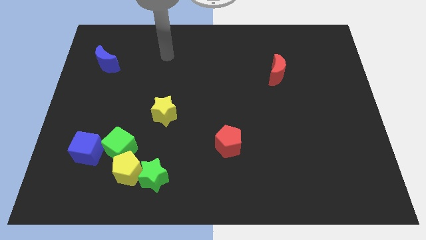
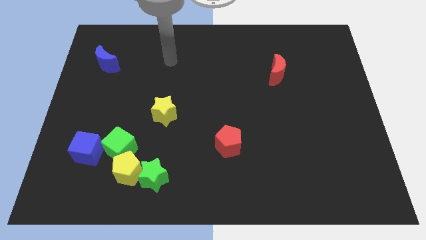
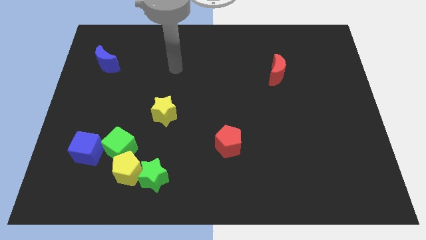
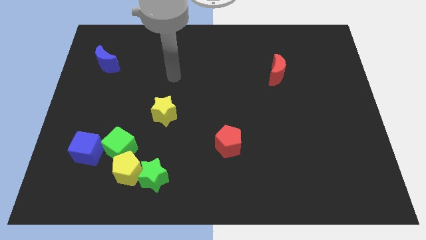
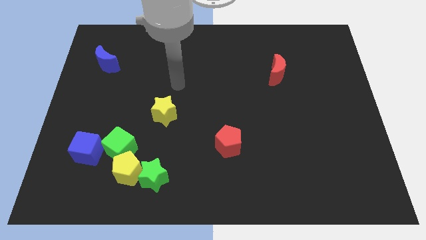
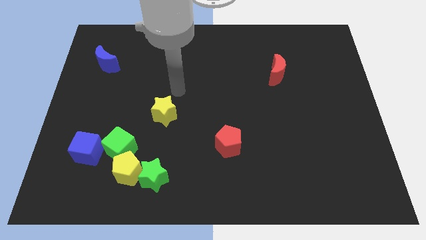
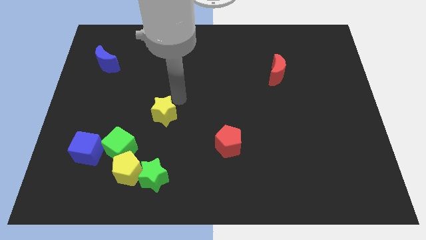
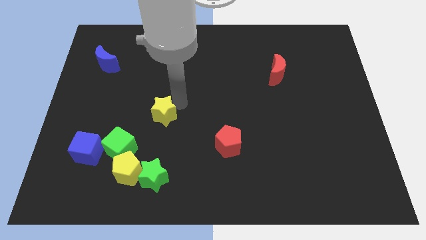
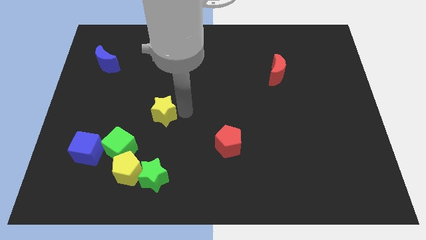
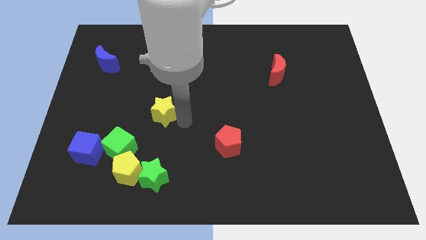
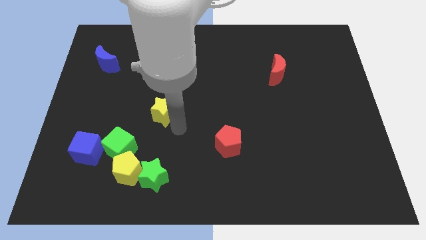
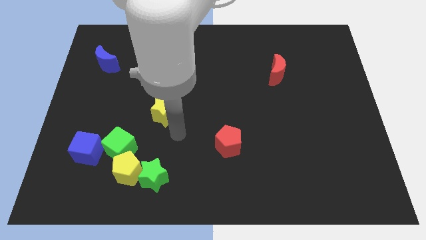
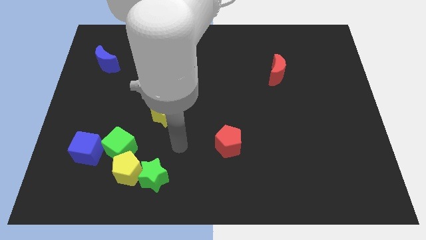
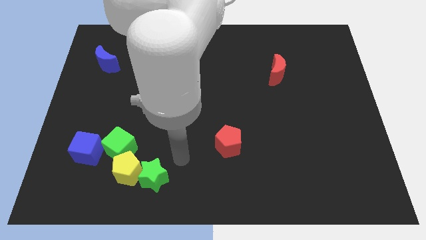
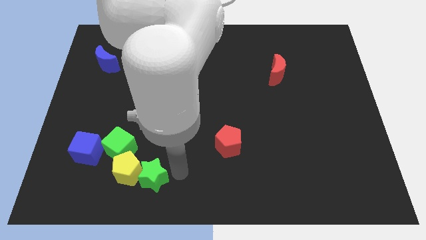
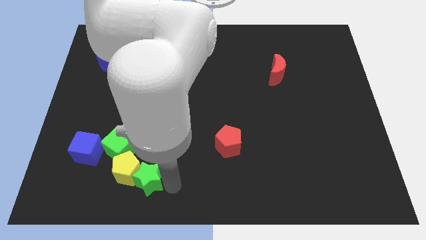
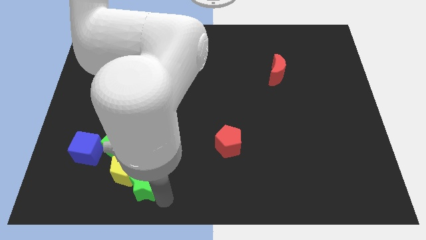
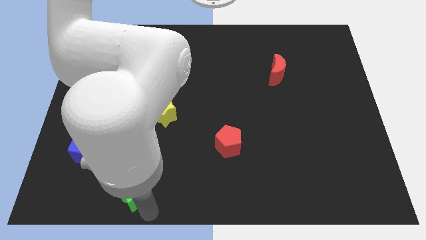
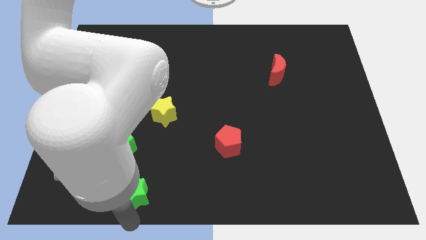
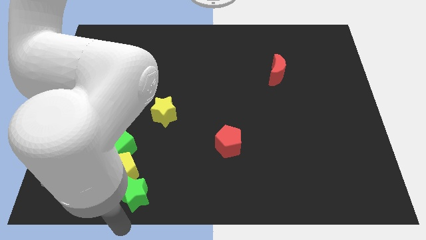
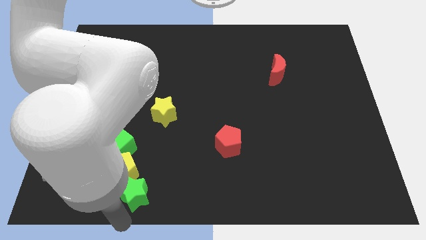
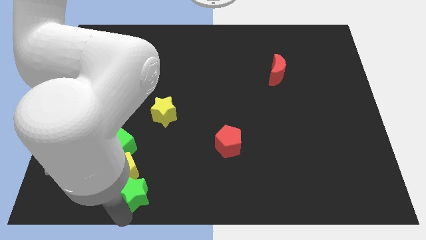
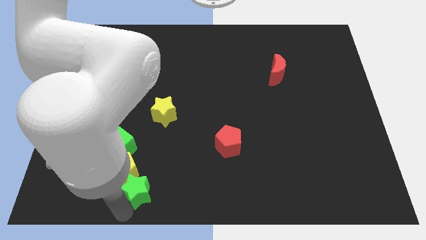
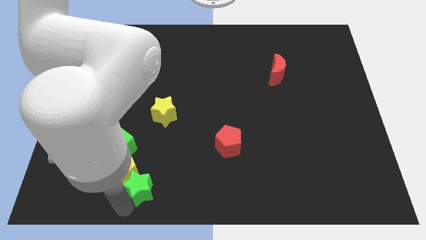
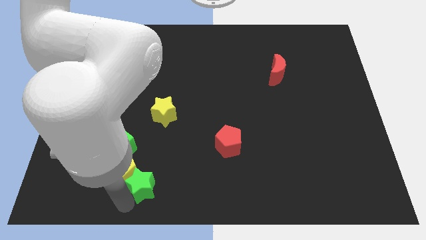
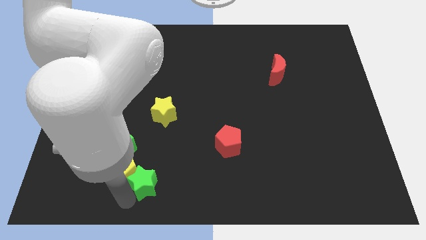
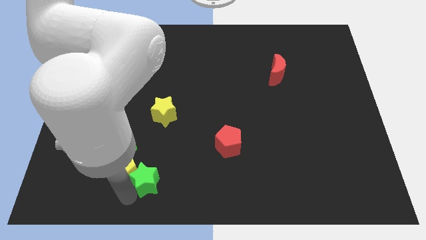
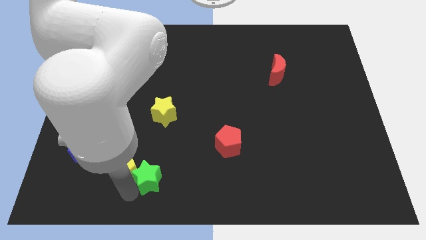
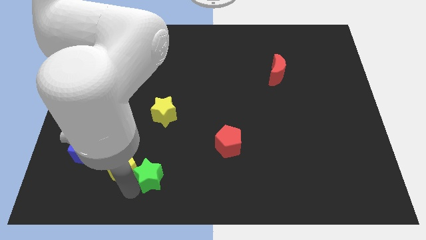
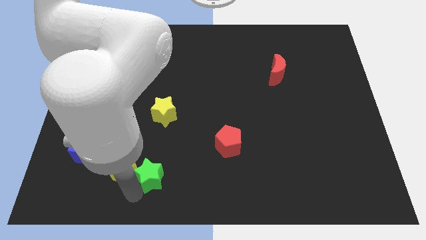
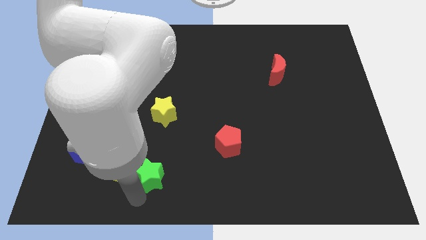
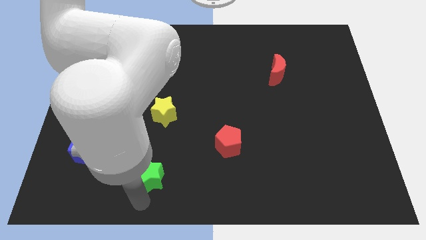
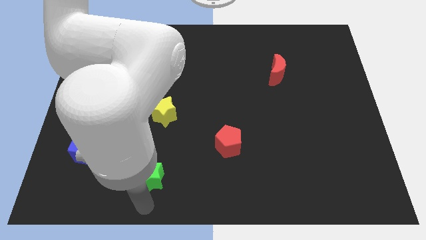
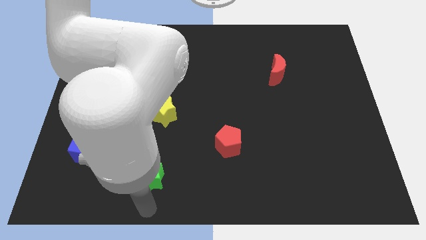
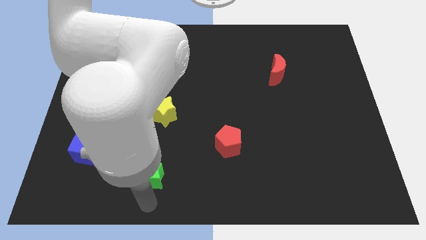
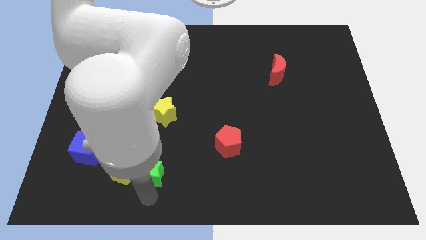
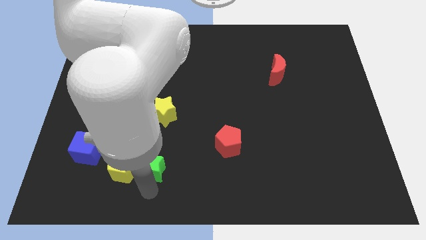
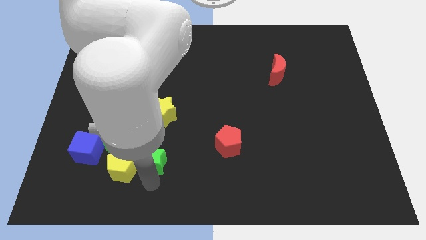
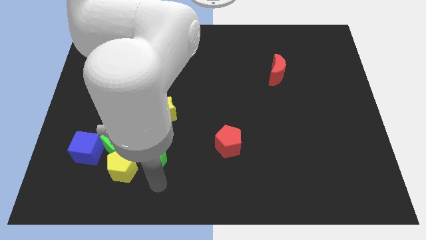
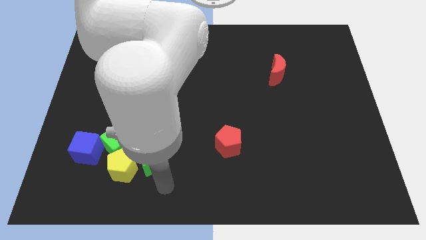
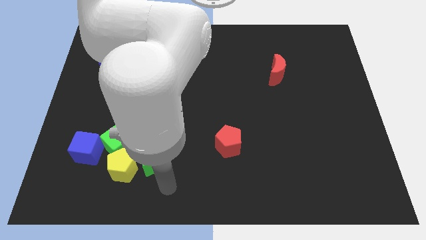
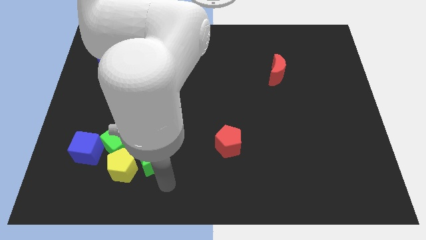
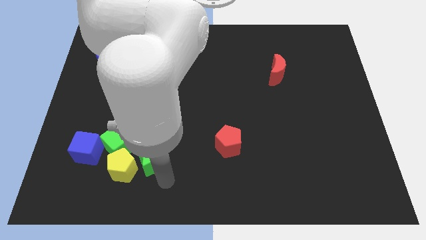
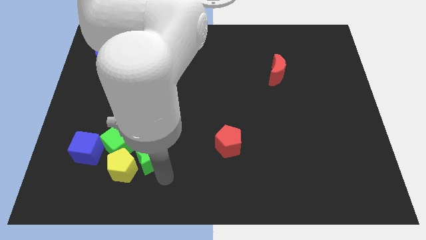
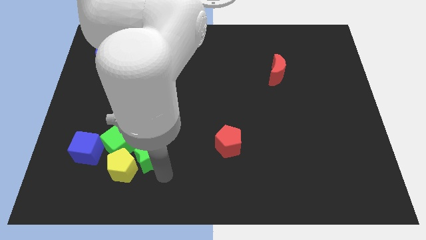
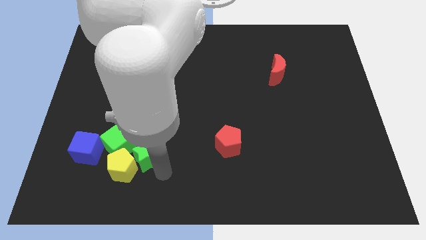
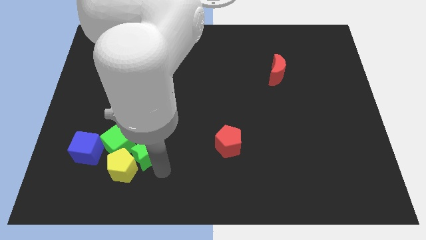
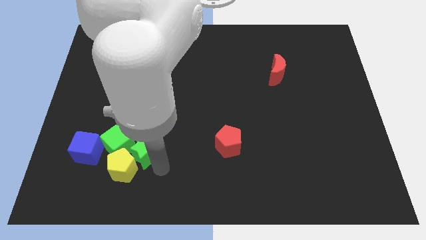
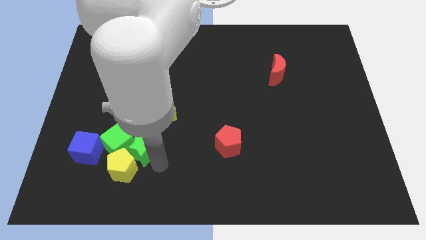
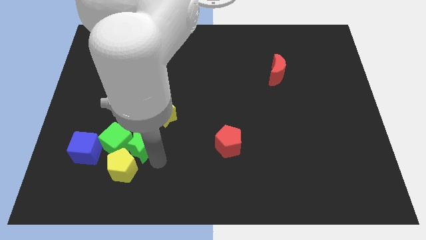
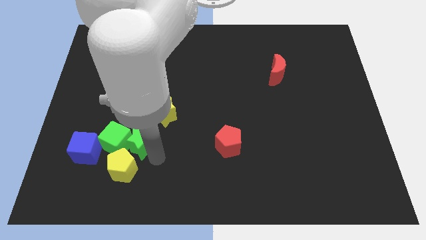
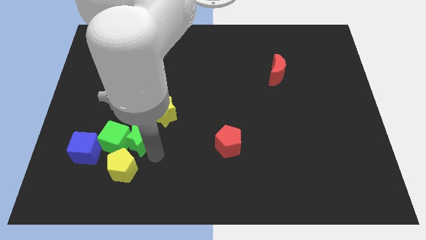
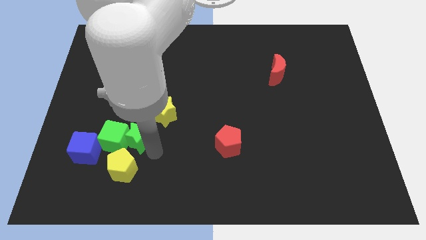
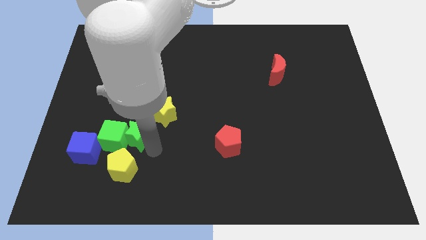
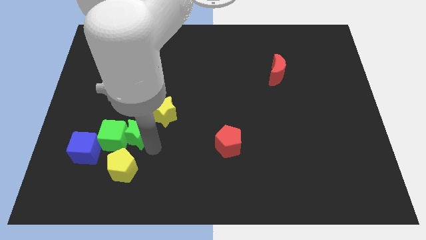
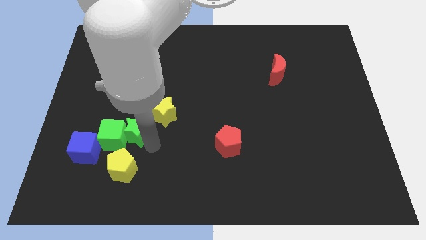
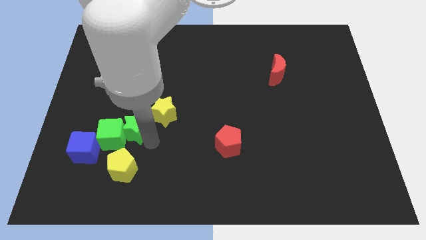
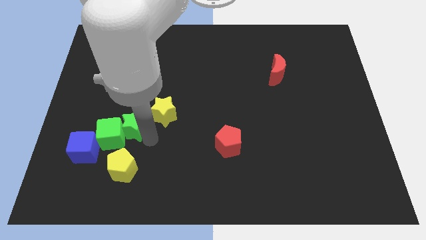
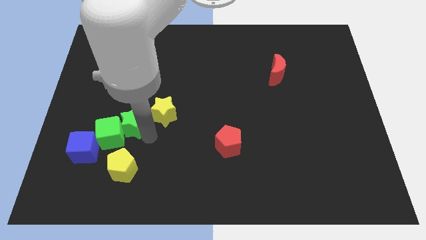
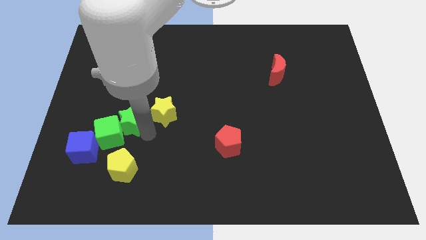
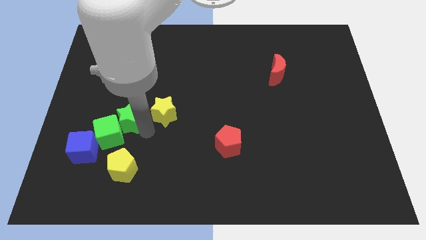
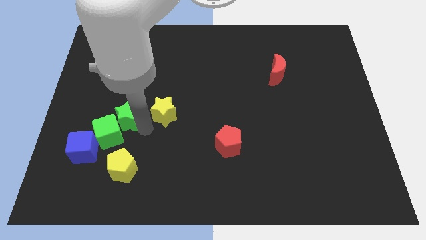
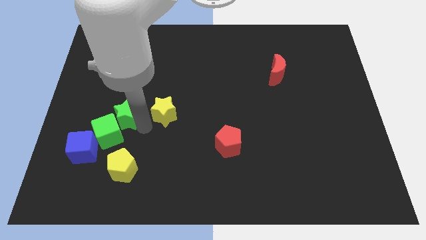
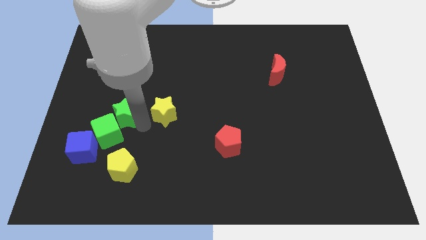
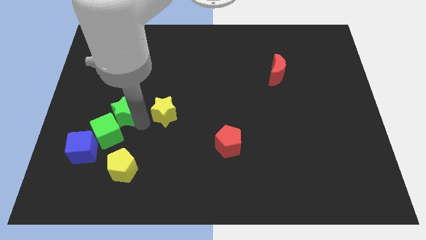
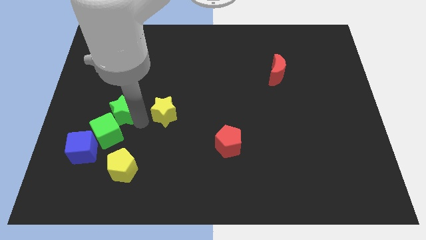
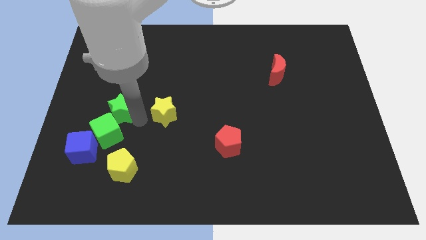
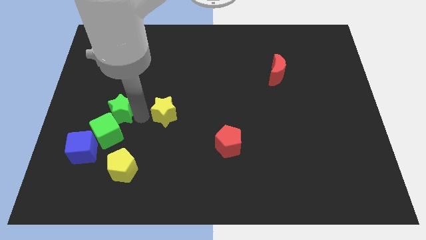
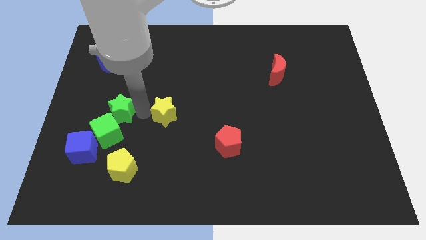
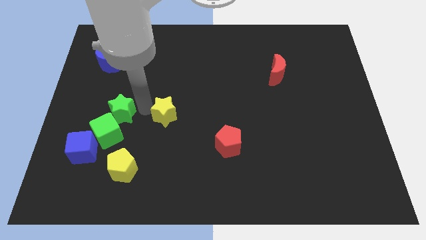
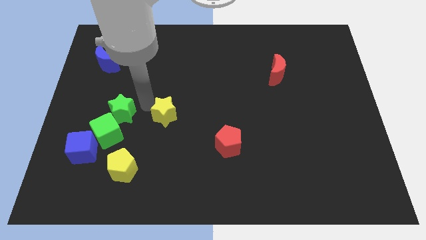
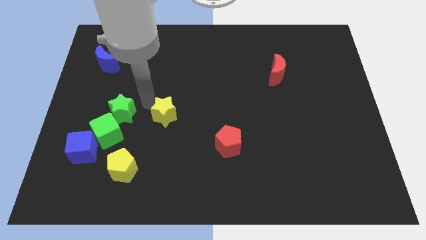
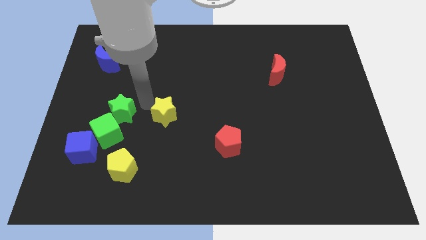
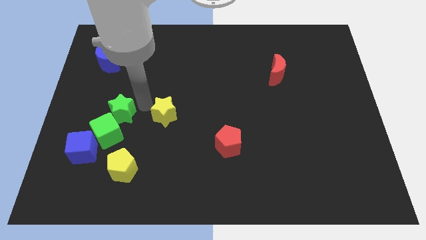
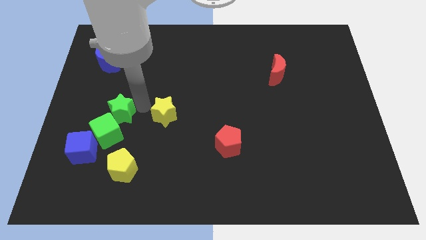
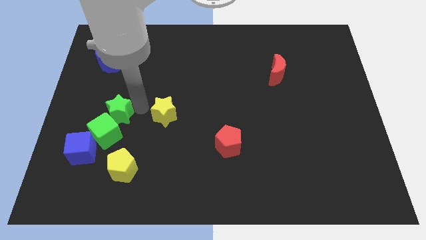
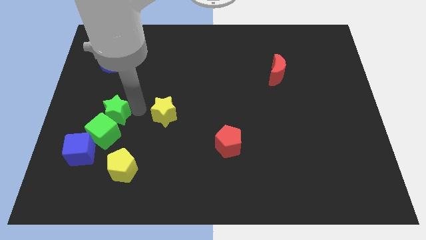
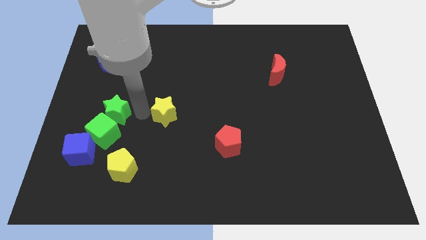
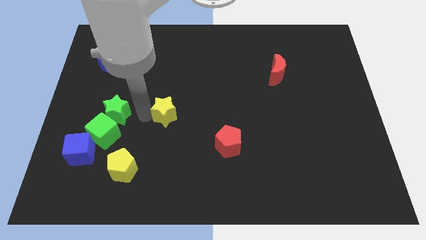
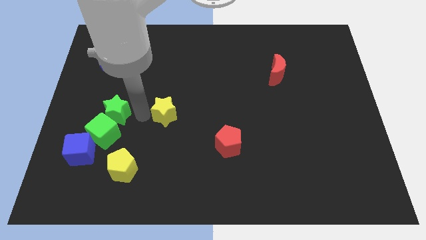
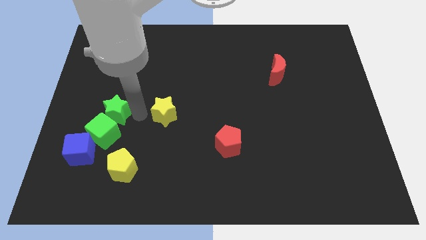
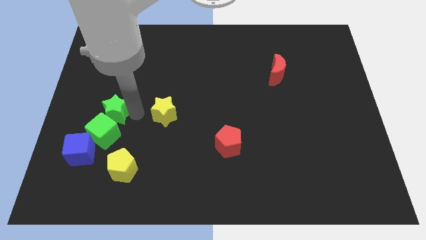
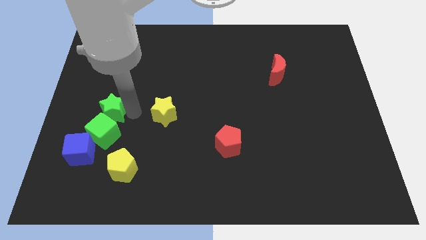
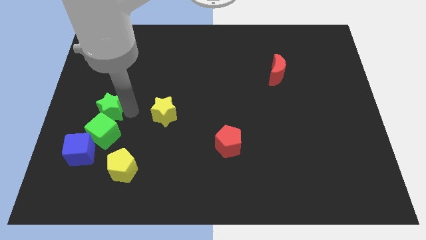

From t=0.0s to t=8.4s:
put the green star above the blue cube
